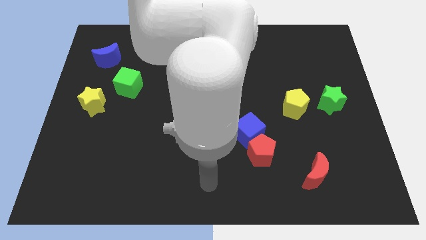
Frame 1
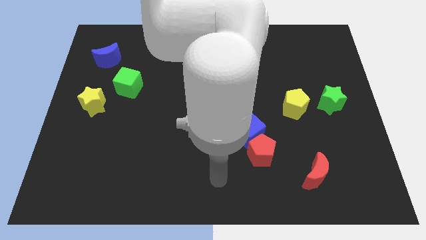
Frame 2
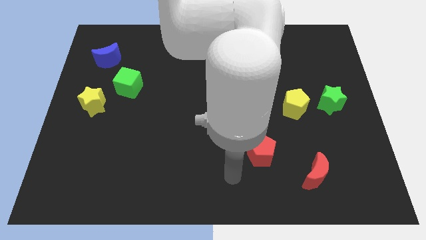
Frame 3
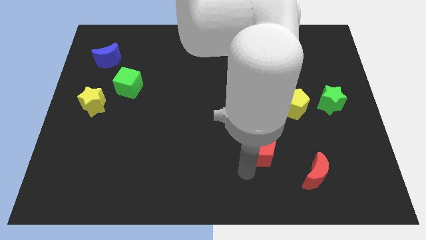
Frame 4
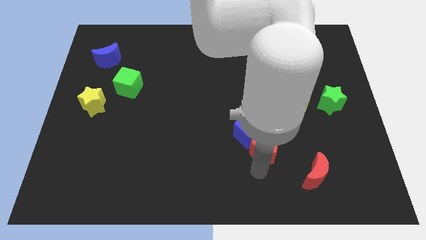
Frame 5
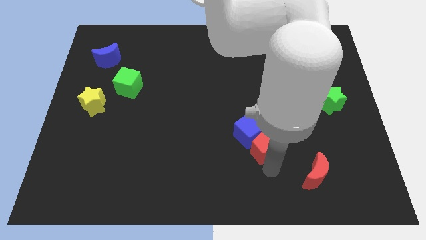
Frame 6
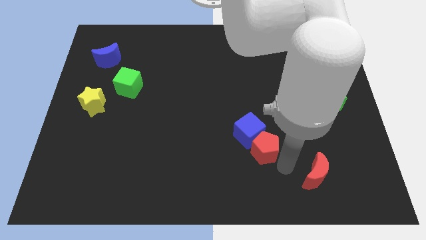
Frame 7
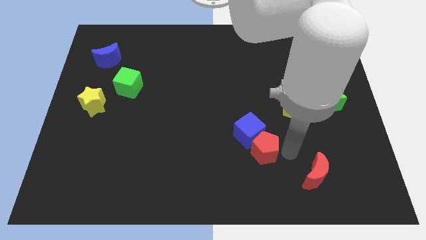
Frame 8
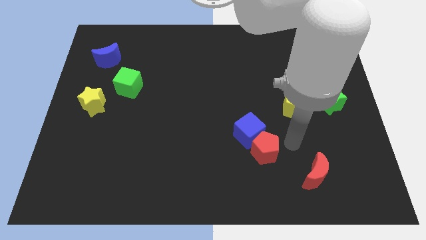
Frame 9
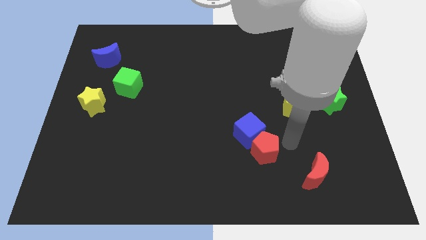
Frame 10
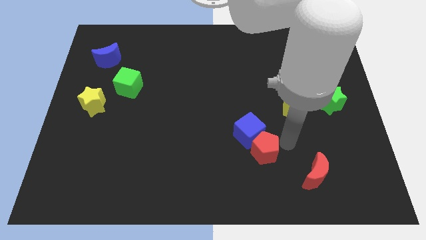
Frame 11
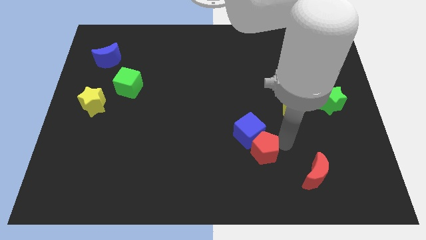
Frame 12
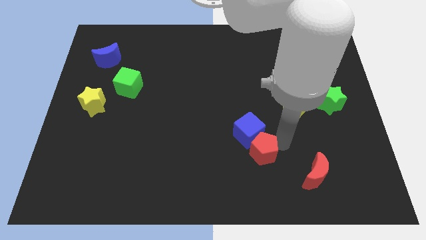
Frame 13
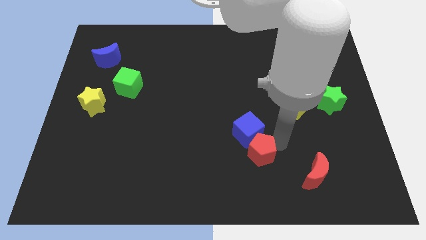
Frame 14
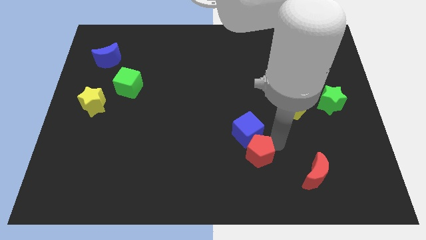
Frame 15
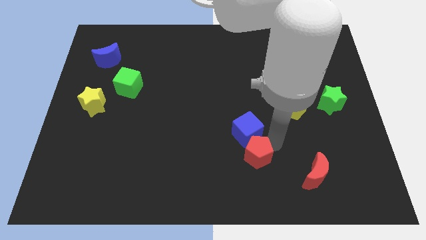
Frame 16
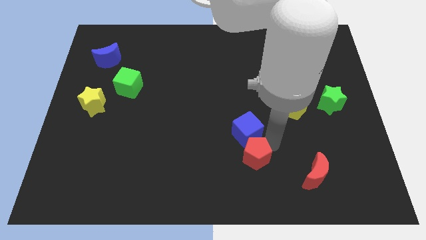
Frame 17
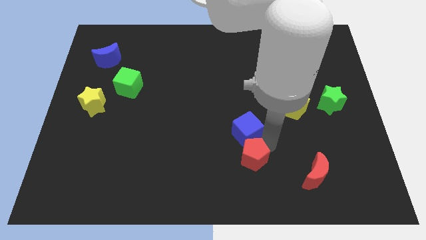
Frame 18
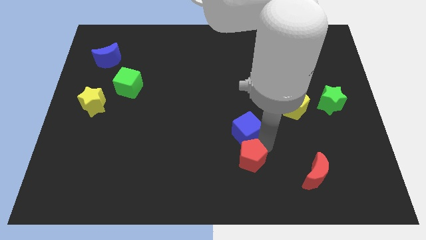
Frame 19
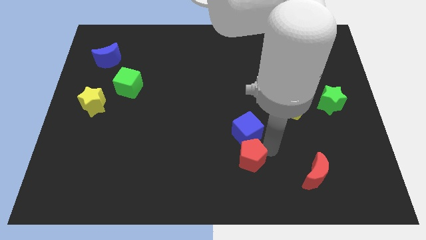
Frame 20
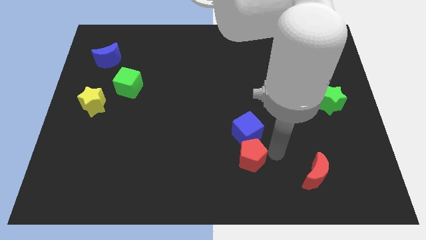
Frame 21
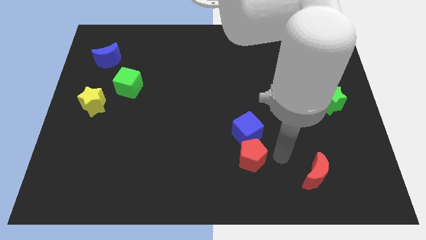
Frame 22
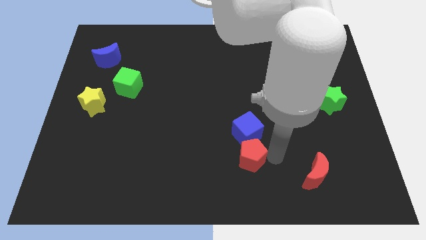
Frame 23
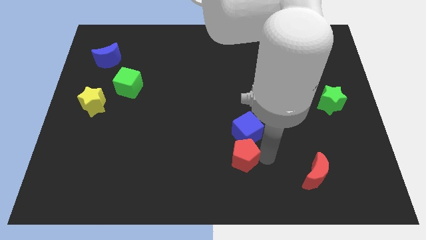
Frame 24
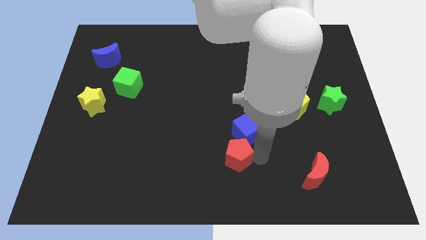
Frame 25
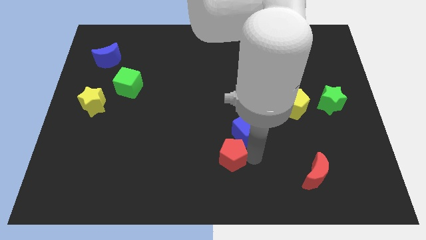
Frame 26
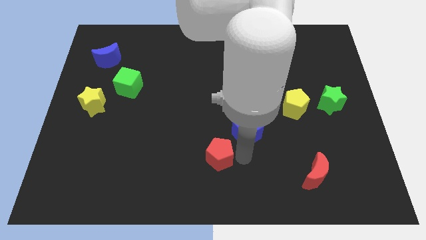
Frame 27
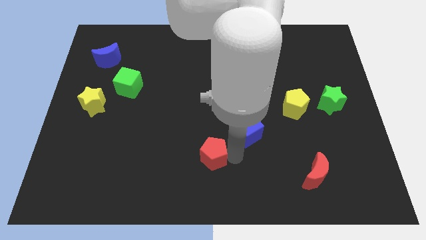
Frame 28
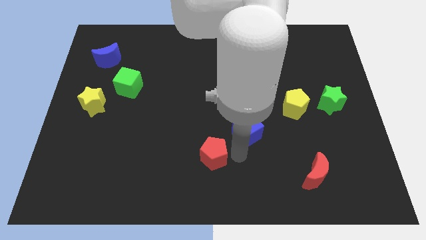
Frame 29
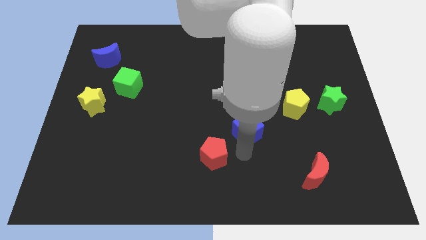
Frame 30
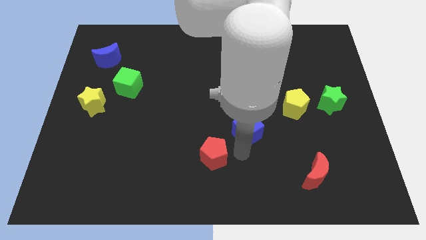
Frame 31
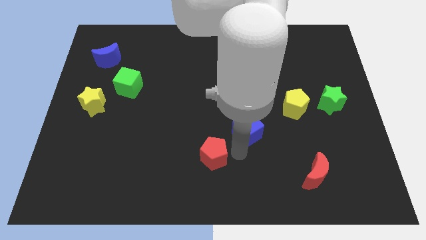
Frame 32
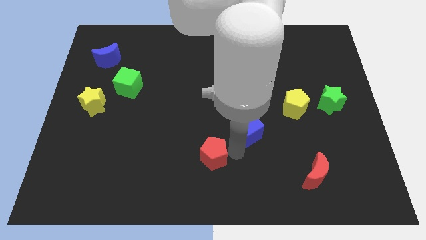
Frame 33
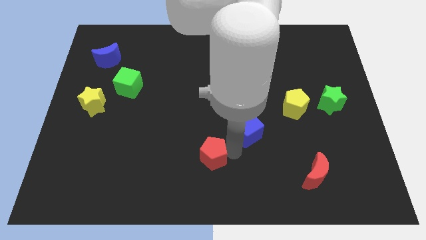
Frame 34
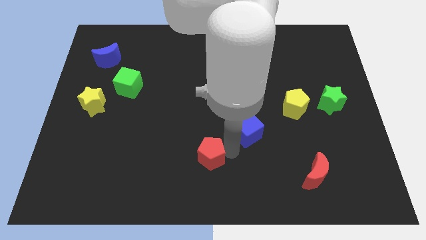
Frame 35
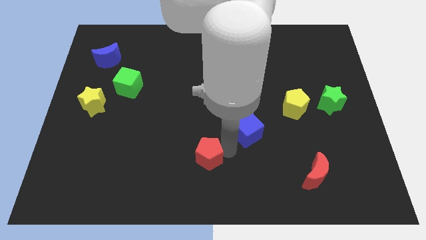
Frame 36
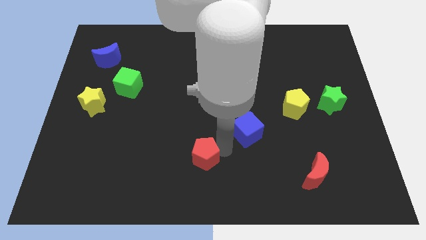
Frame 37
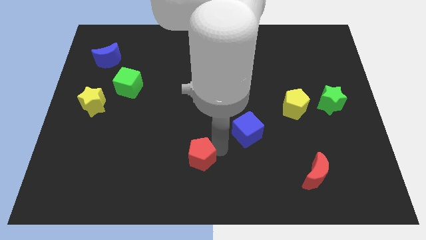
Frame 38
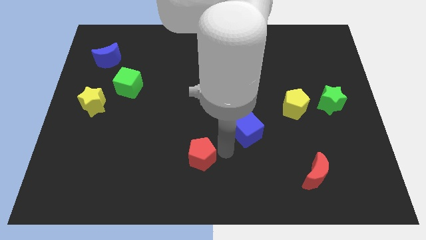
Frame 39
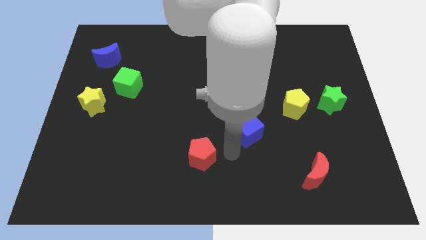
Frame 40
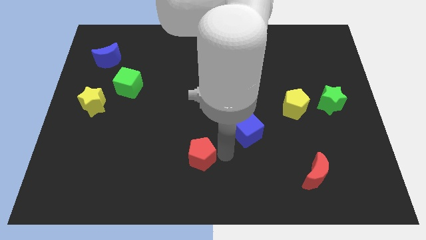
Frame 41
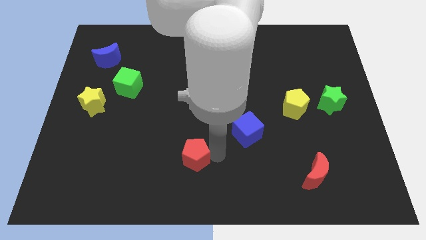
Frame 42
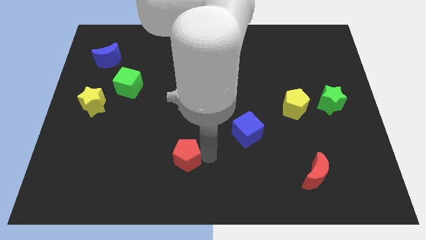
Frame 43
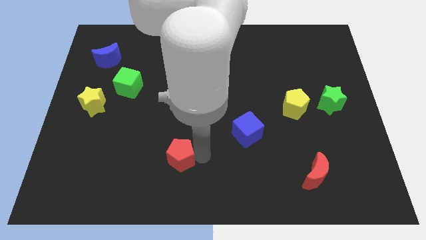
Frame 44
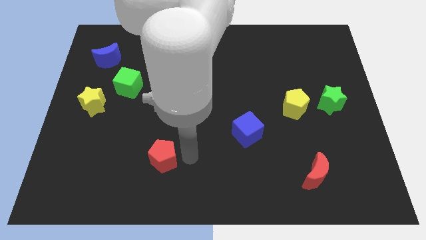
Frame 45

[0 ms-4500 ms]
slide the red pentagon left

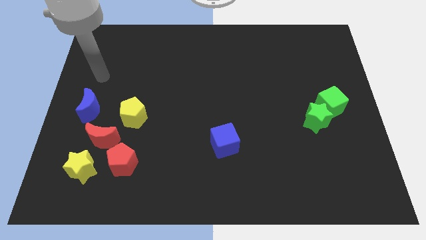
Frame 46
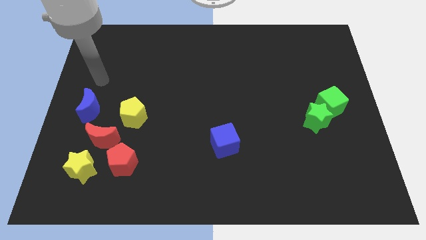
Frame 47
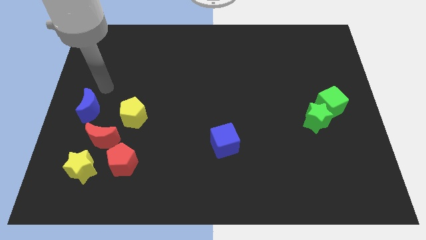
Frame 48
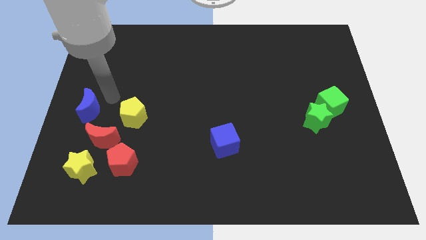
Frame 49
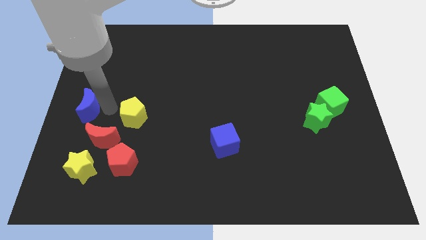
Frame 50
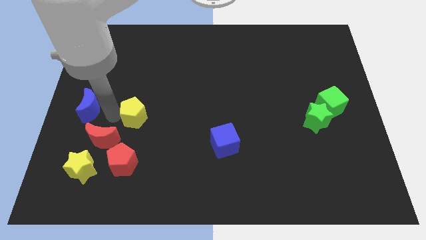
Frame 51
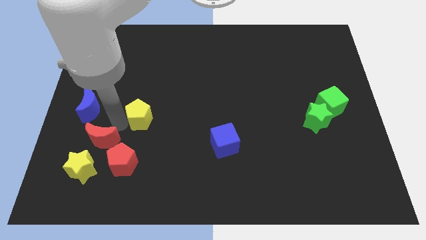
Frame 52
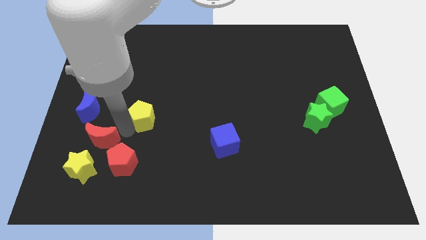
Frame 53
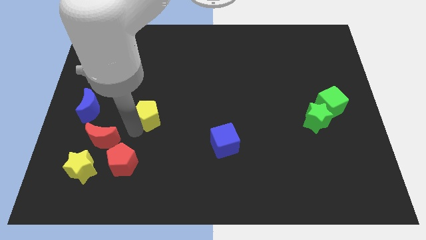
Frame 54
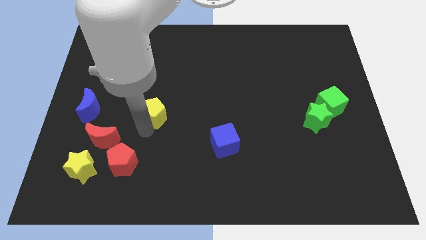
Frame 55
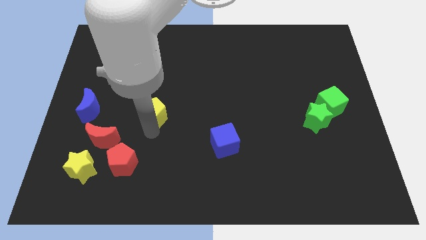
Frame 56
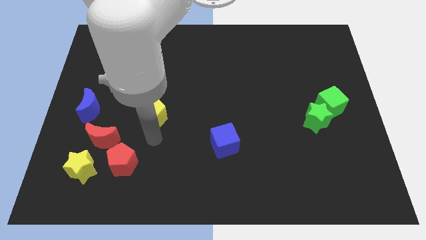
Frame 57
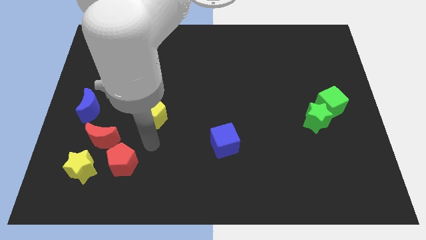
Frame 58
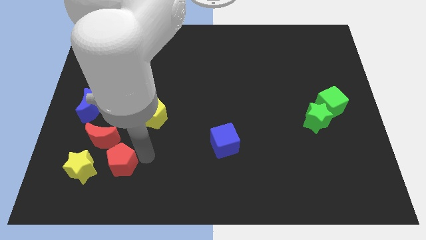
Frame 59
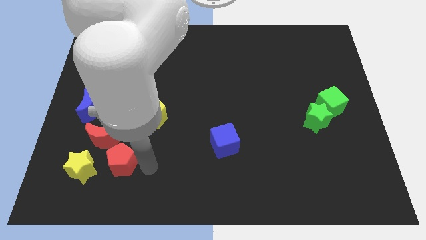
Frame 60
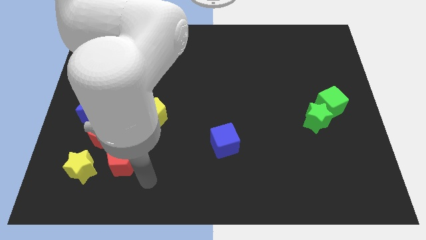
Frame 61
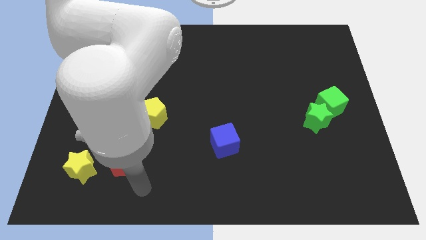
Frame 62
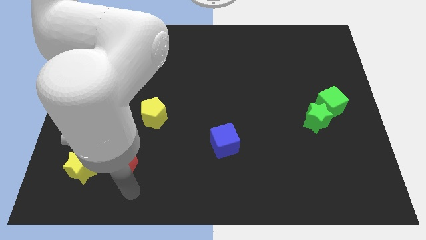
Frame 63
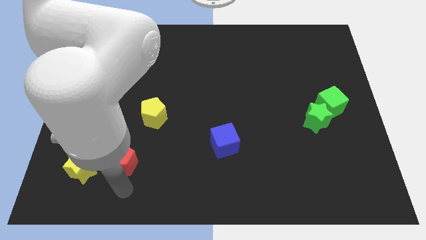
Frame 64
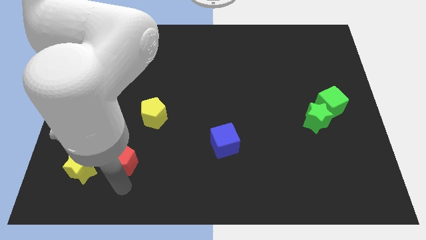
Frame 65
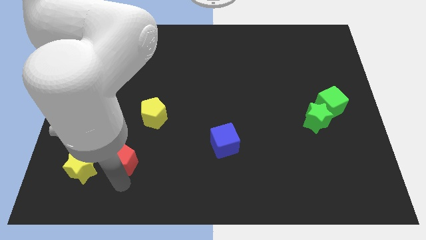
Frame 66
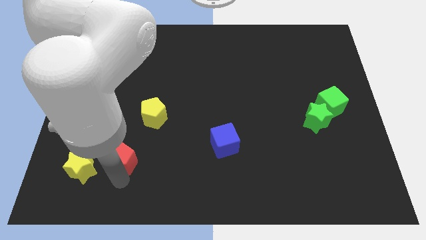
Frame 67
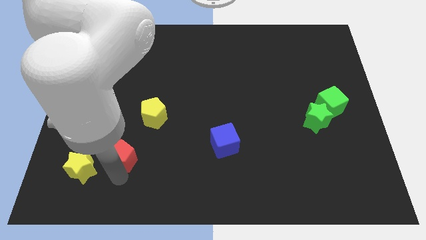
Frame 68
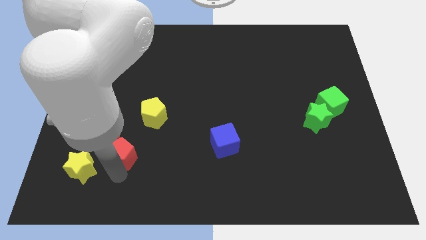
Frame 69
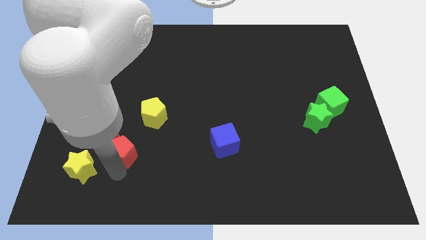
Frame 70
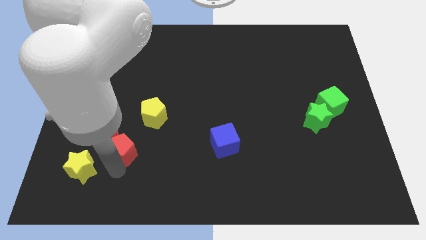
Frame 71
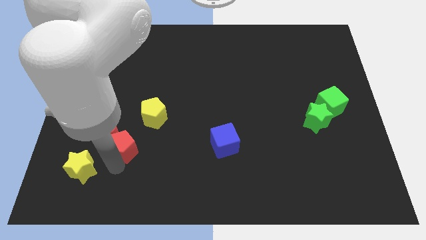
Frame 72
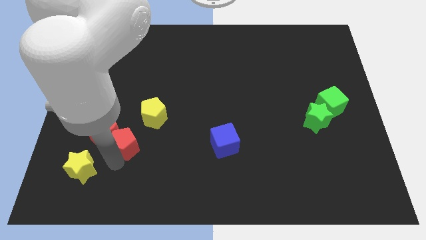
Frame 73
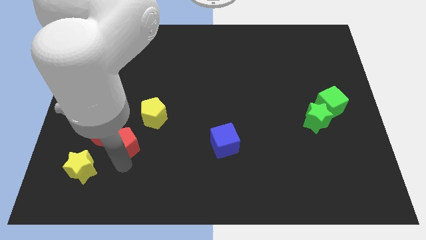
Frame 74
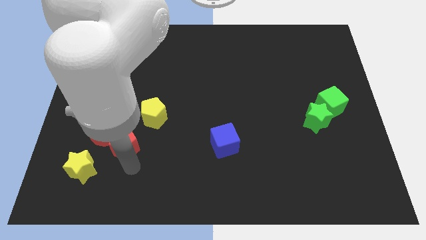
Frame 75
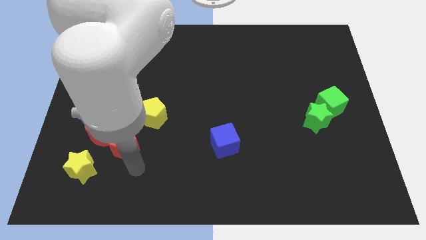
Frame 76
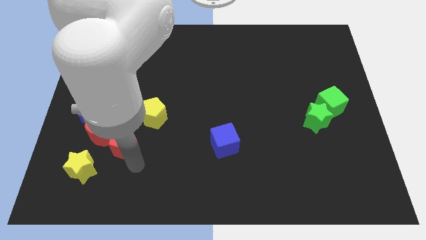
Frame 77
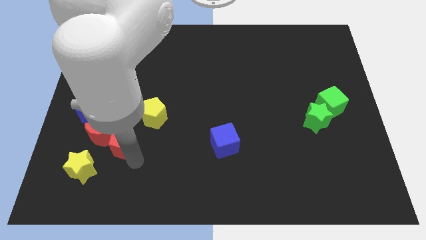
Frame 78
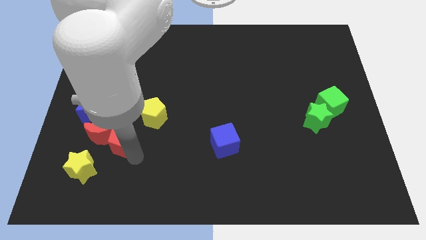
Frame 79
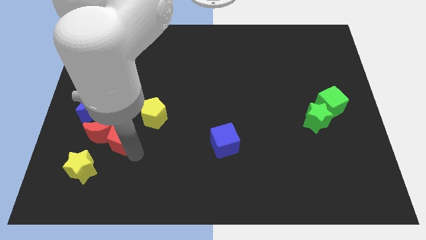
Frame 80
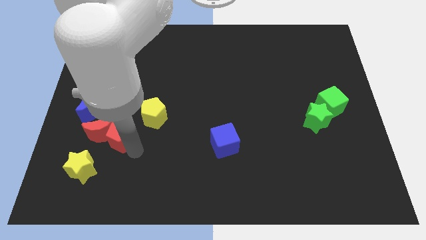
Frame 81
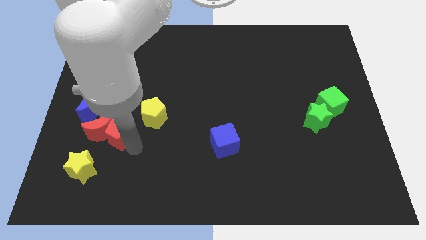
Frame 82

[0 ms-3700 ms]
slightly move the red pentagon upwards
